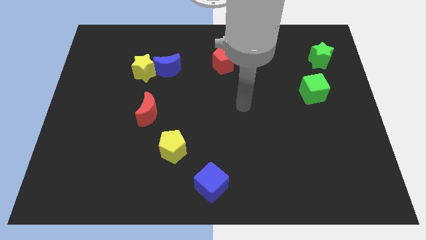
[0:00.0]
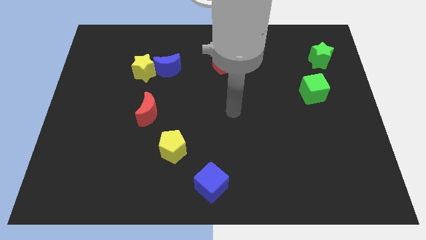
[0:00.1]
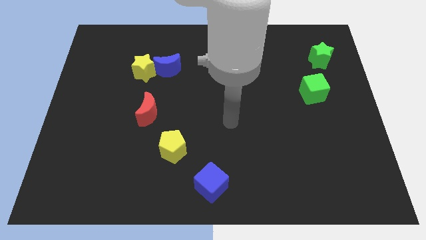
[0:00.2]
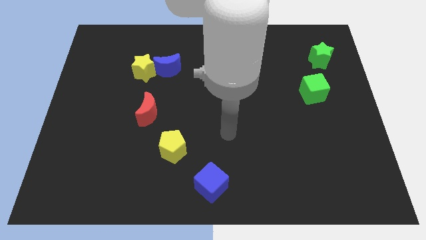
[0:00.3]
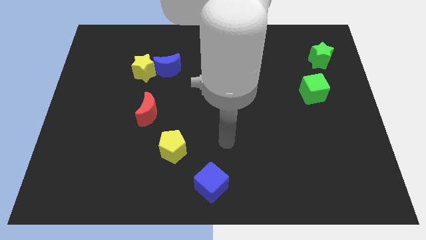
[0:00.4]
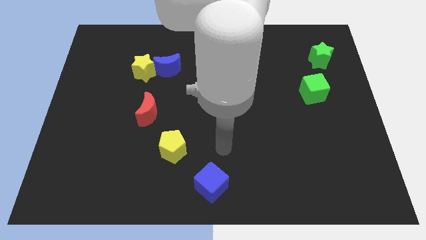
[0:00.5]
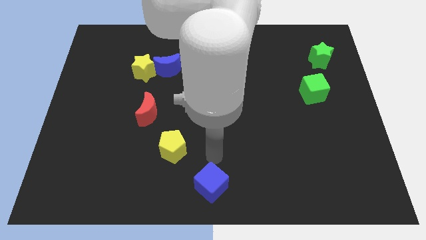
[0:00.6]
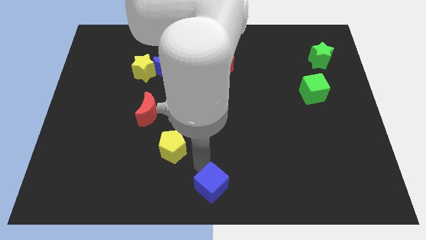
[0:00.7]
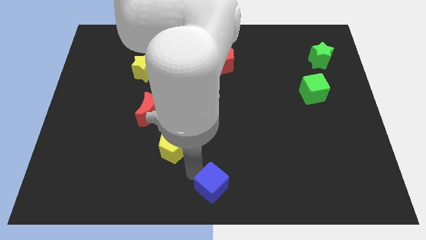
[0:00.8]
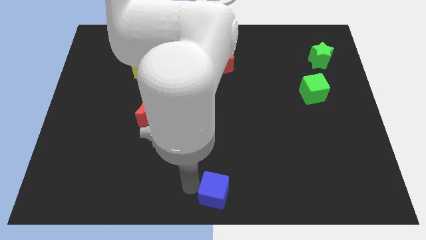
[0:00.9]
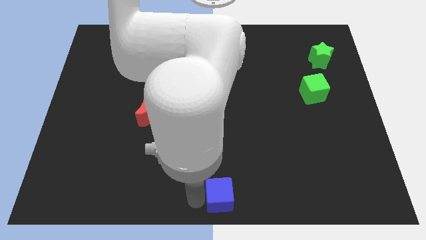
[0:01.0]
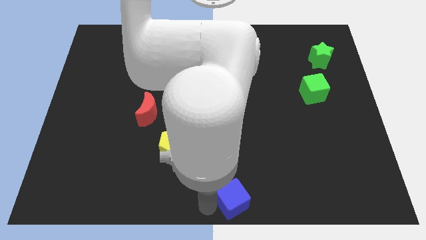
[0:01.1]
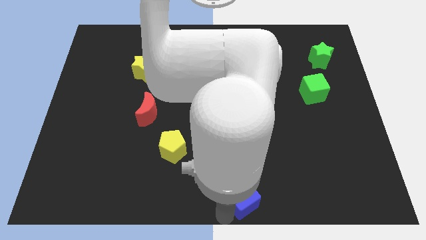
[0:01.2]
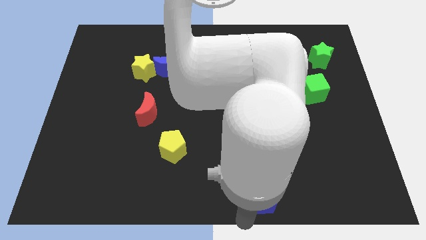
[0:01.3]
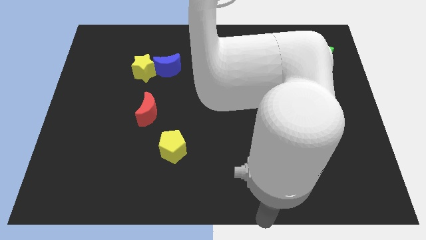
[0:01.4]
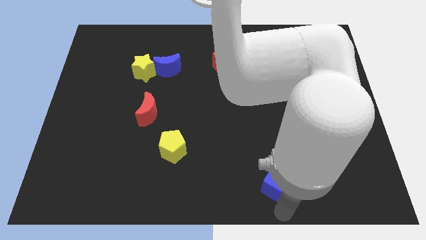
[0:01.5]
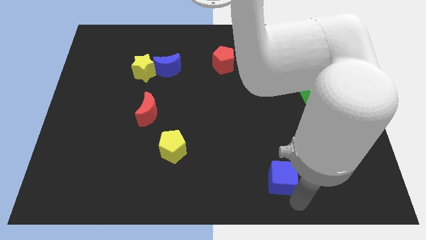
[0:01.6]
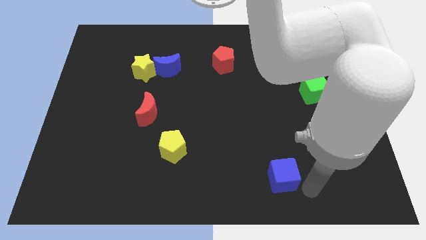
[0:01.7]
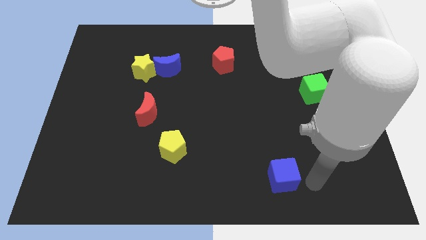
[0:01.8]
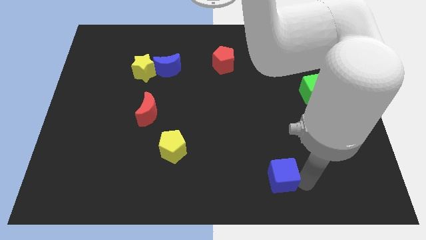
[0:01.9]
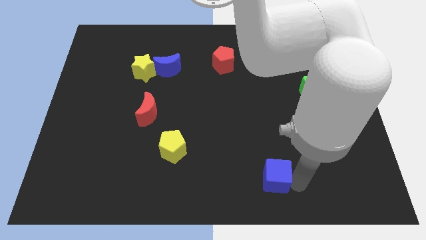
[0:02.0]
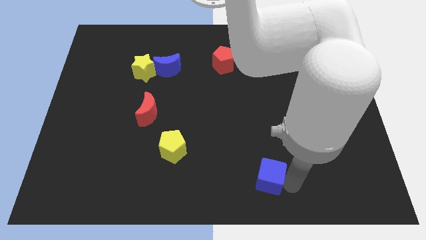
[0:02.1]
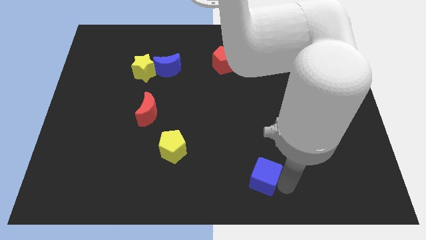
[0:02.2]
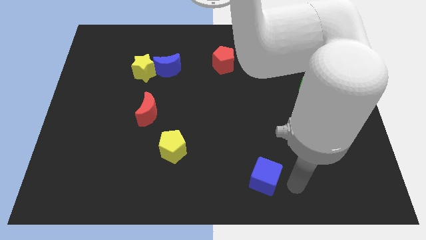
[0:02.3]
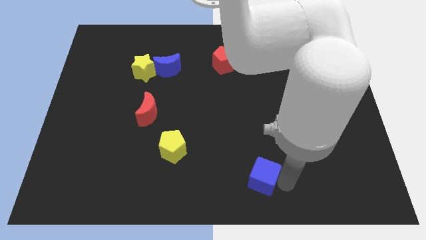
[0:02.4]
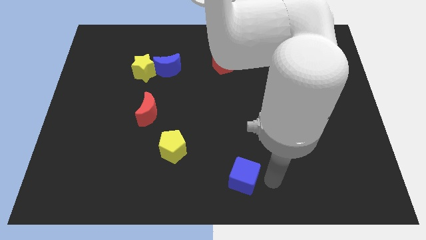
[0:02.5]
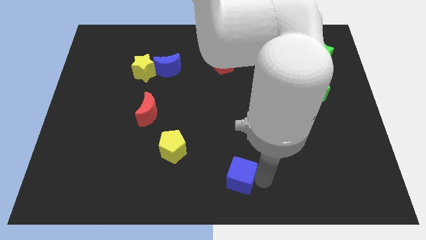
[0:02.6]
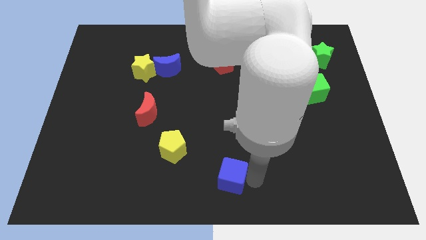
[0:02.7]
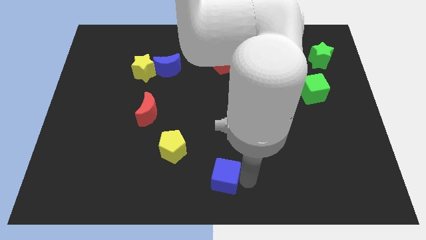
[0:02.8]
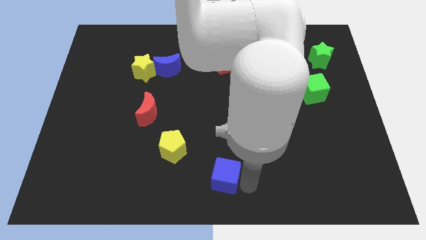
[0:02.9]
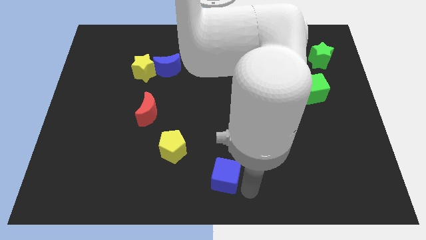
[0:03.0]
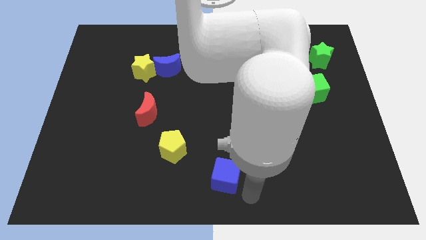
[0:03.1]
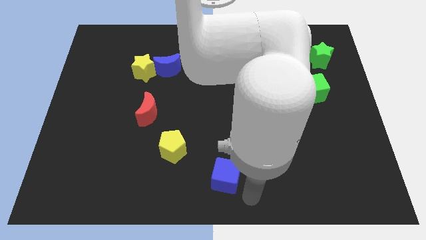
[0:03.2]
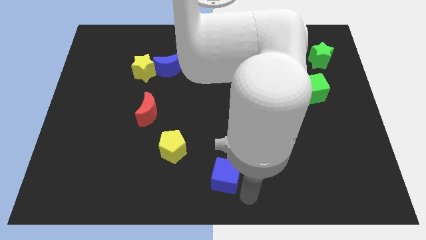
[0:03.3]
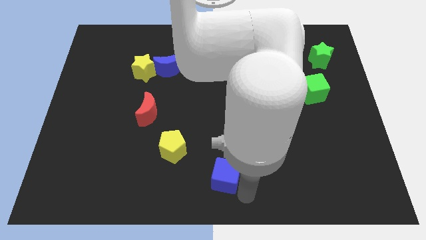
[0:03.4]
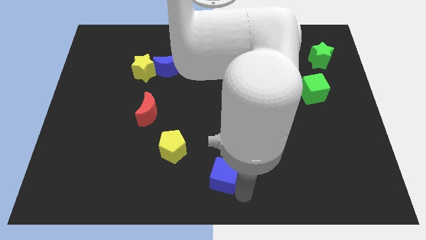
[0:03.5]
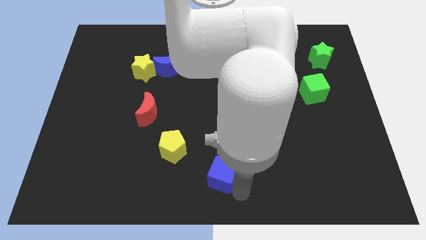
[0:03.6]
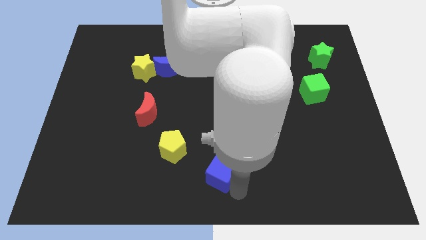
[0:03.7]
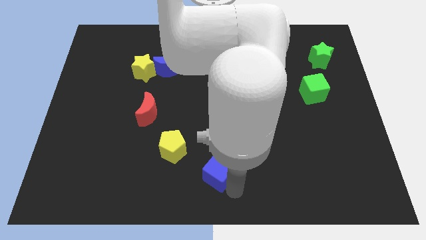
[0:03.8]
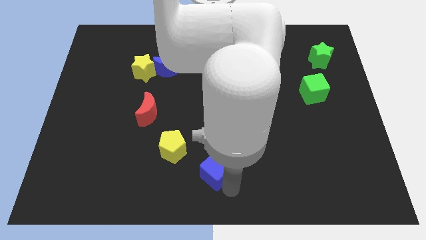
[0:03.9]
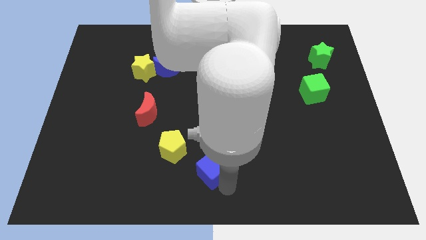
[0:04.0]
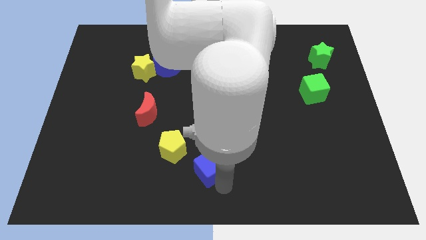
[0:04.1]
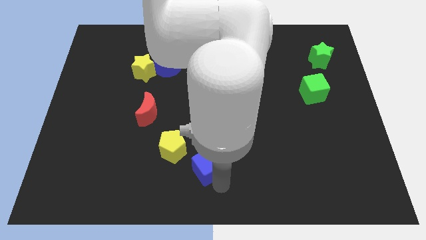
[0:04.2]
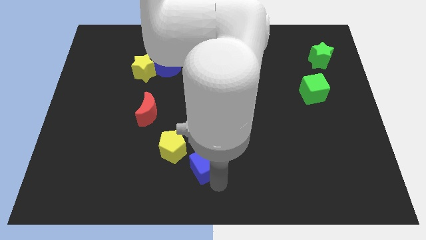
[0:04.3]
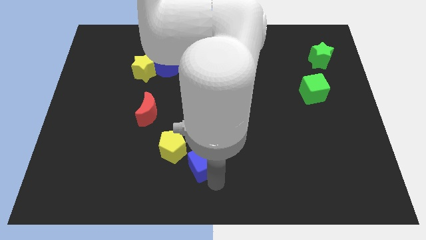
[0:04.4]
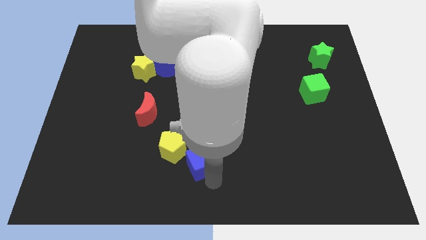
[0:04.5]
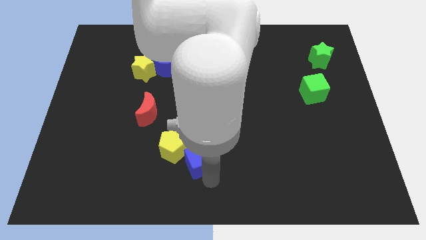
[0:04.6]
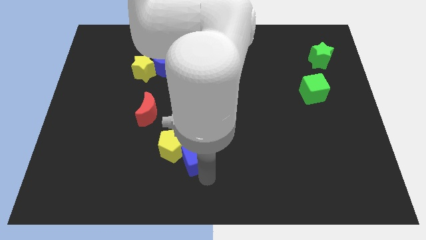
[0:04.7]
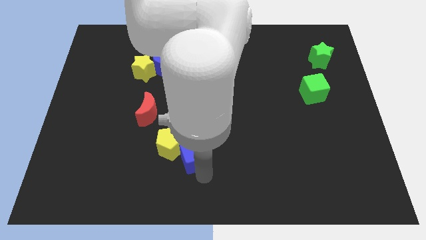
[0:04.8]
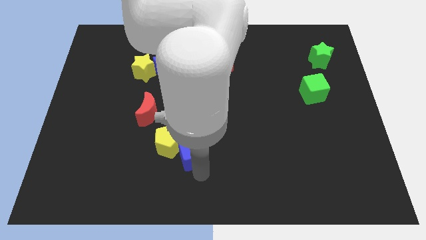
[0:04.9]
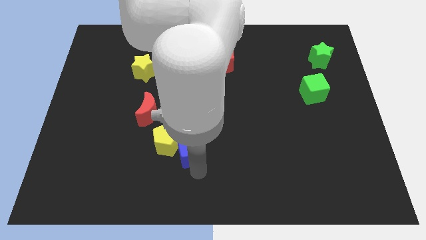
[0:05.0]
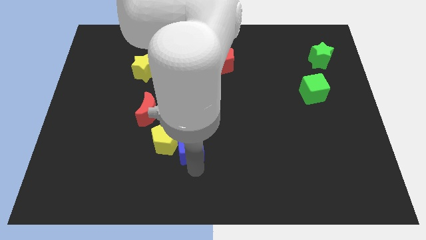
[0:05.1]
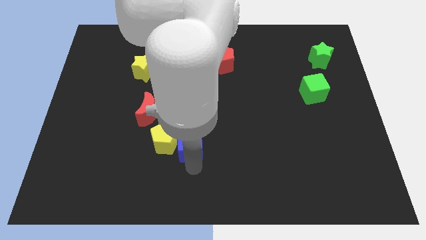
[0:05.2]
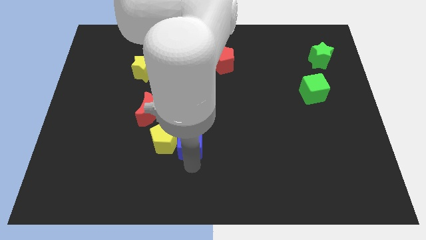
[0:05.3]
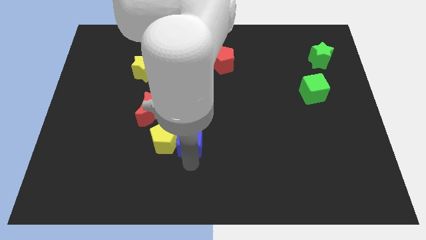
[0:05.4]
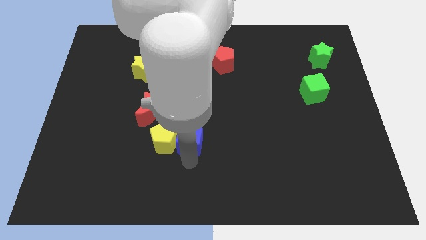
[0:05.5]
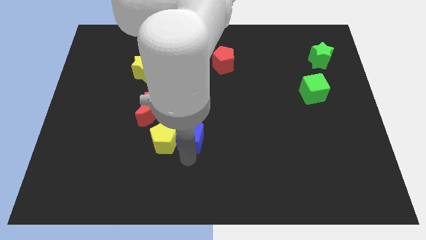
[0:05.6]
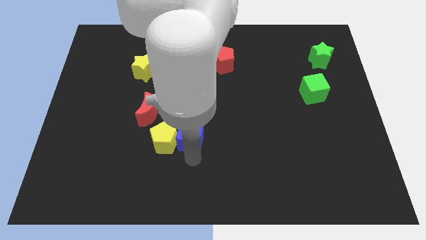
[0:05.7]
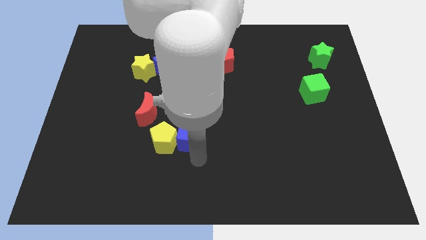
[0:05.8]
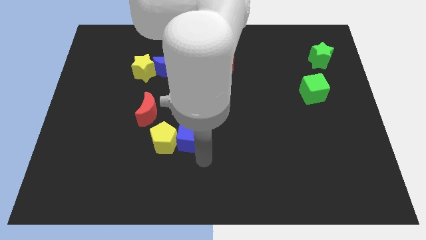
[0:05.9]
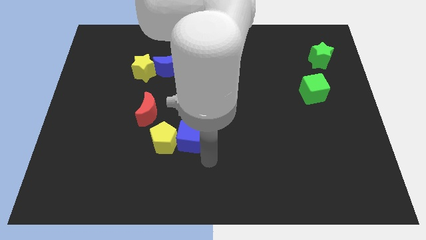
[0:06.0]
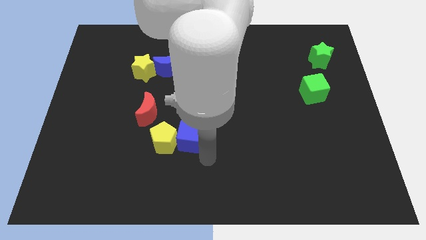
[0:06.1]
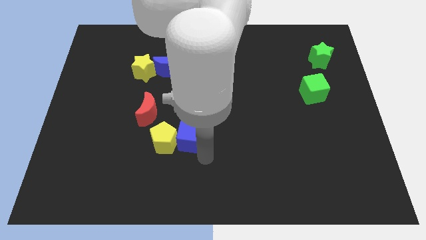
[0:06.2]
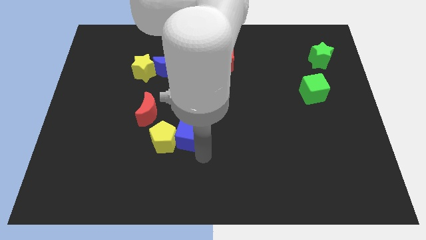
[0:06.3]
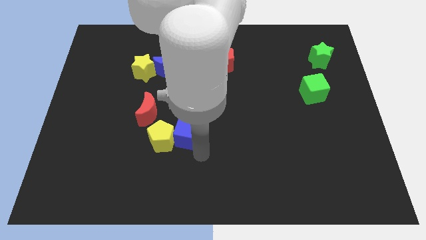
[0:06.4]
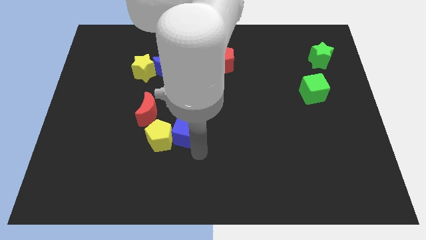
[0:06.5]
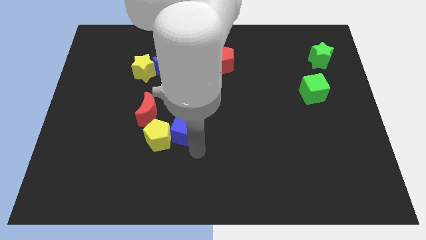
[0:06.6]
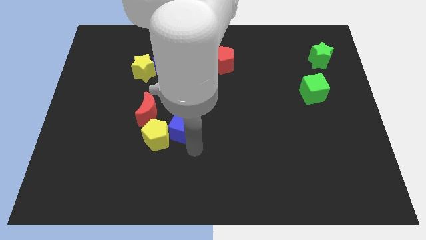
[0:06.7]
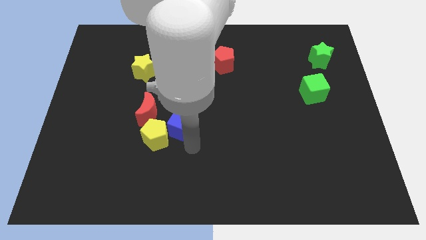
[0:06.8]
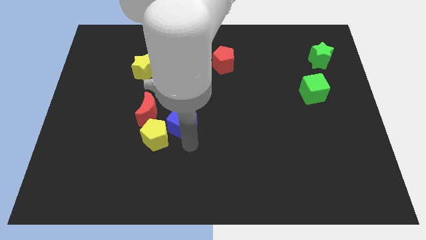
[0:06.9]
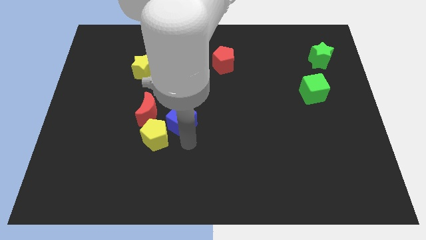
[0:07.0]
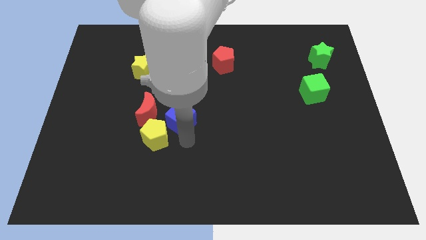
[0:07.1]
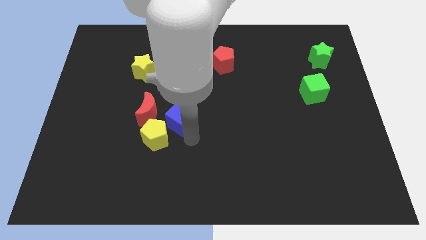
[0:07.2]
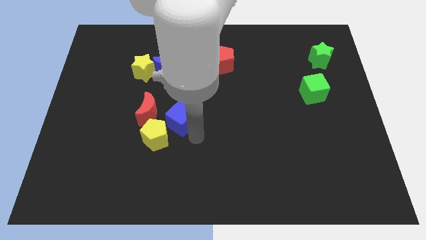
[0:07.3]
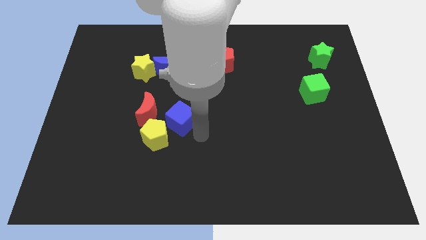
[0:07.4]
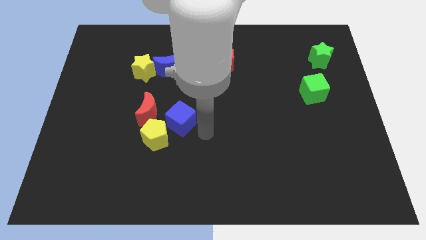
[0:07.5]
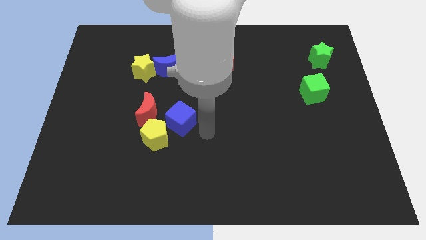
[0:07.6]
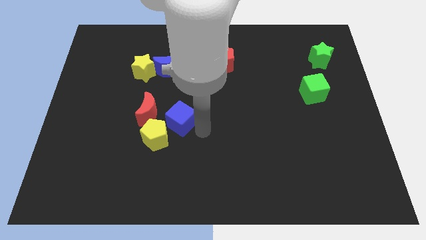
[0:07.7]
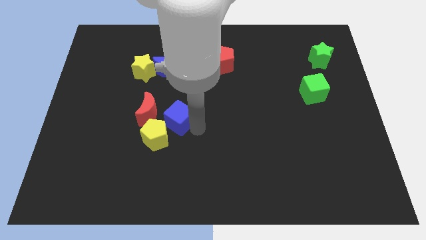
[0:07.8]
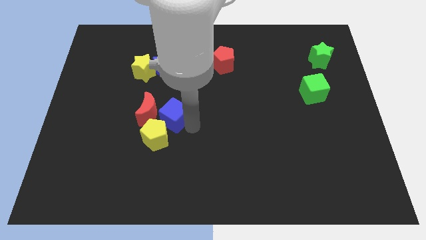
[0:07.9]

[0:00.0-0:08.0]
move the blue cube to the bottom of the blue moon
